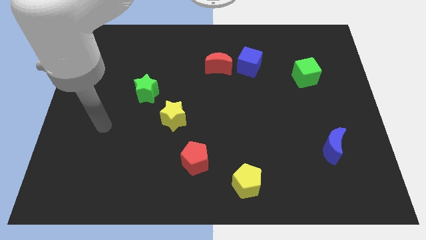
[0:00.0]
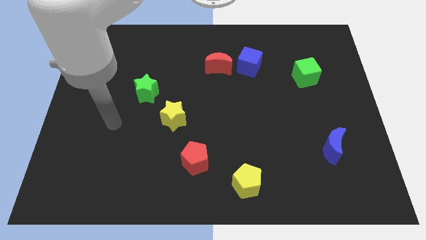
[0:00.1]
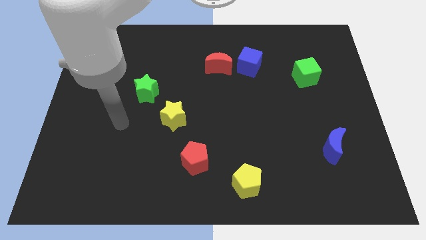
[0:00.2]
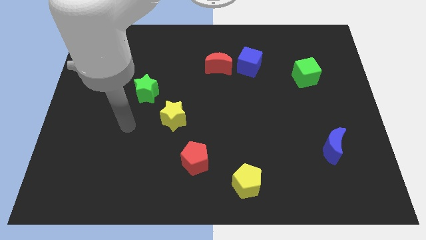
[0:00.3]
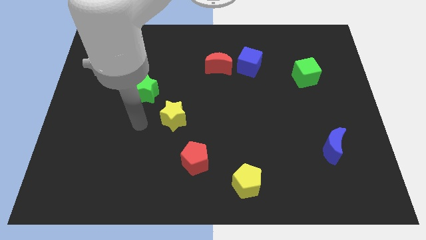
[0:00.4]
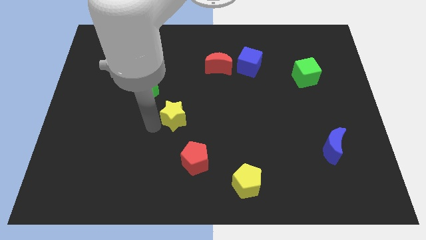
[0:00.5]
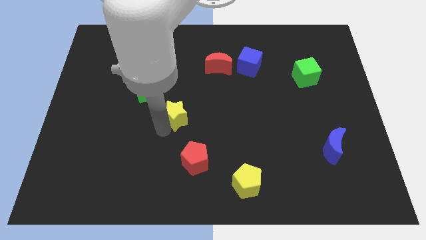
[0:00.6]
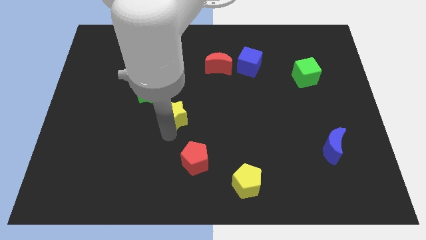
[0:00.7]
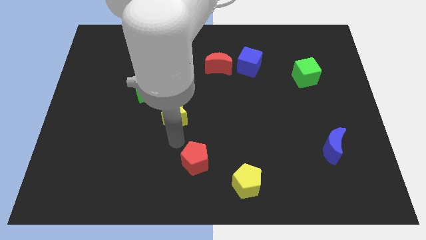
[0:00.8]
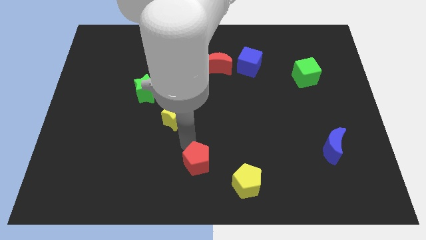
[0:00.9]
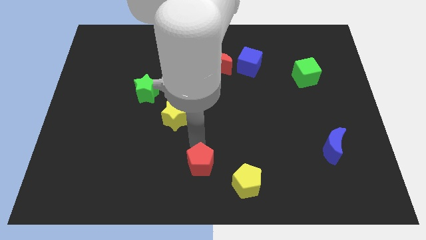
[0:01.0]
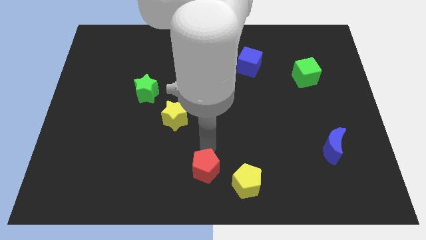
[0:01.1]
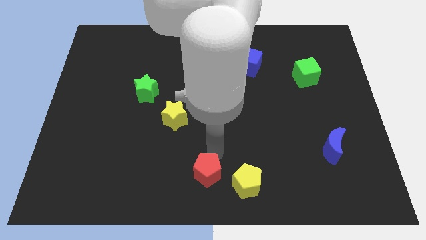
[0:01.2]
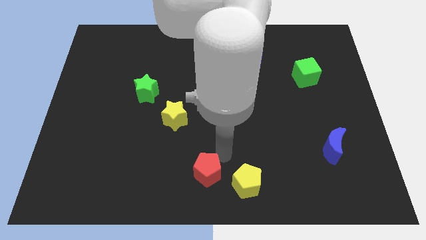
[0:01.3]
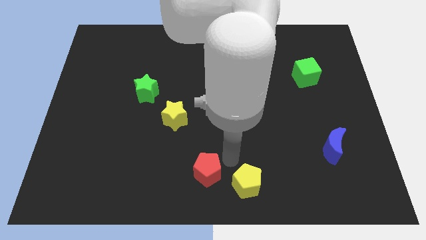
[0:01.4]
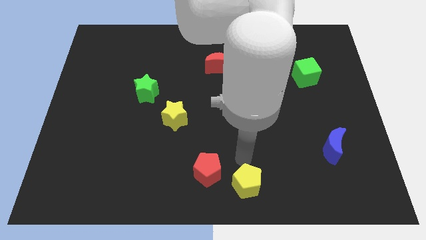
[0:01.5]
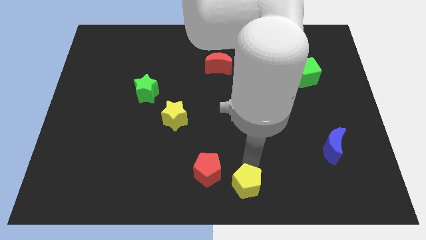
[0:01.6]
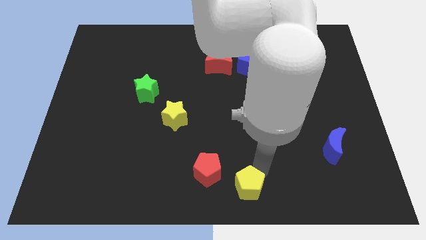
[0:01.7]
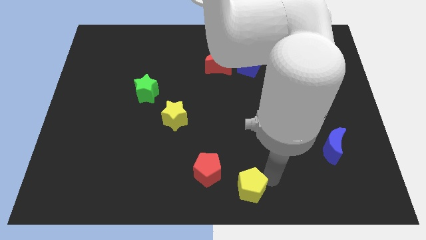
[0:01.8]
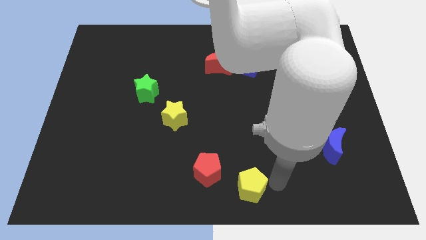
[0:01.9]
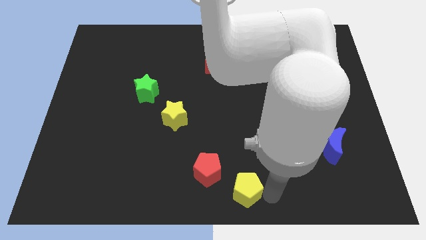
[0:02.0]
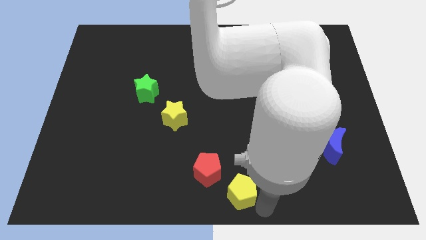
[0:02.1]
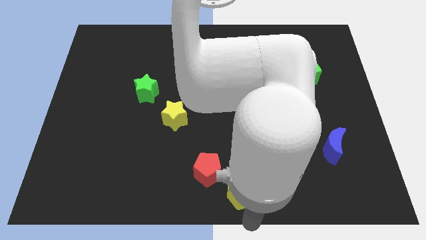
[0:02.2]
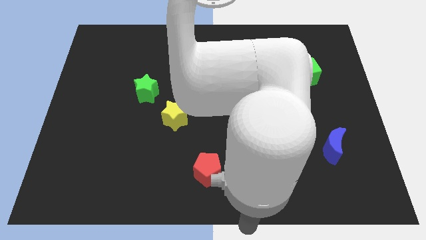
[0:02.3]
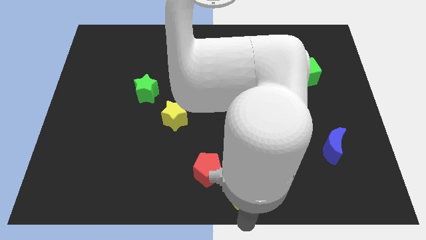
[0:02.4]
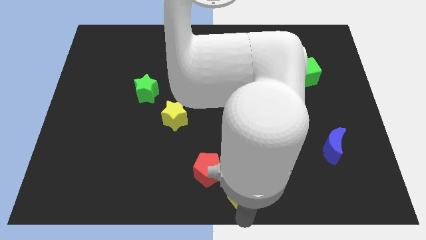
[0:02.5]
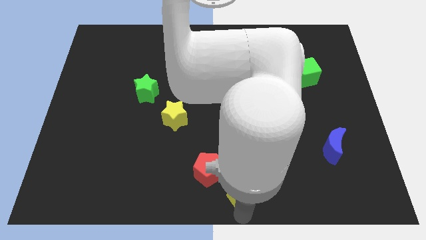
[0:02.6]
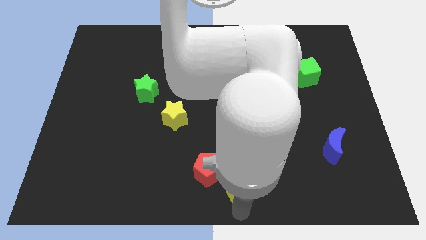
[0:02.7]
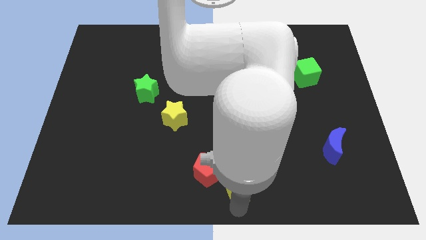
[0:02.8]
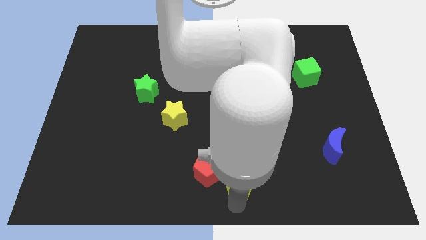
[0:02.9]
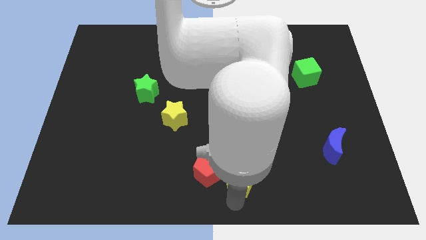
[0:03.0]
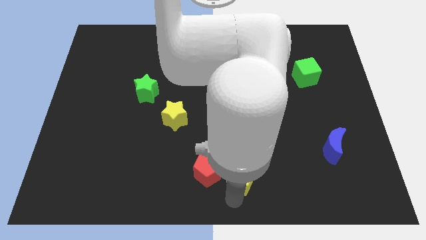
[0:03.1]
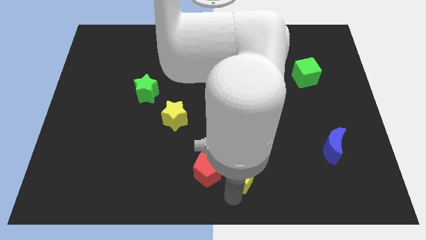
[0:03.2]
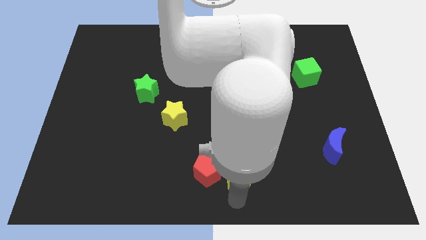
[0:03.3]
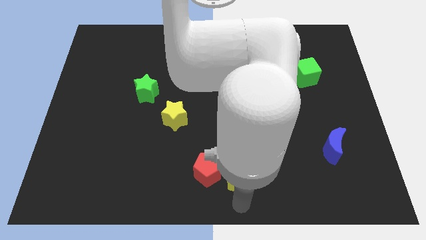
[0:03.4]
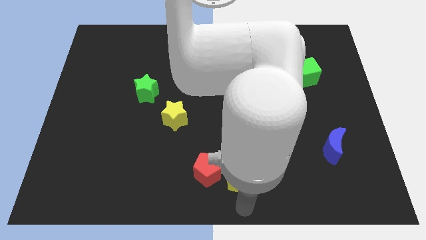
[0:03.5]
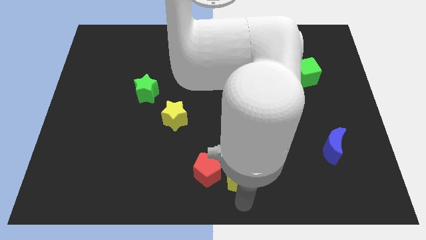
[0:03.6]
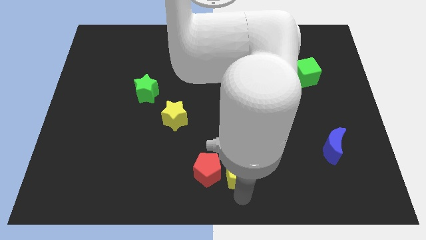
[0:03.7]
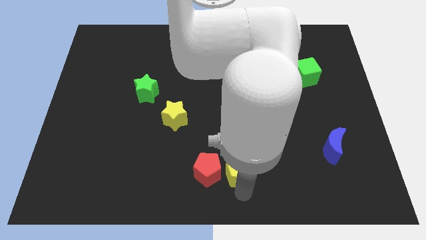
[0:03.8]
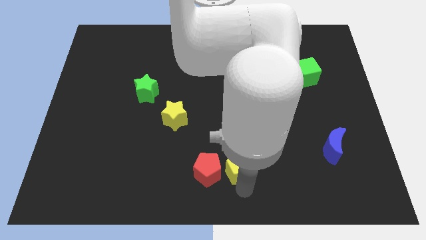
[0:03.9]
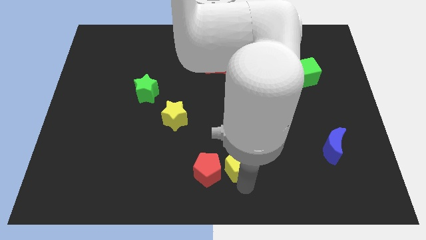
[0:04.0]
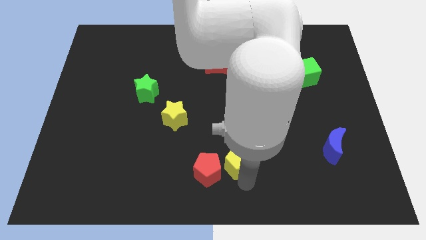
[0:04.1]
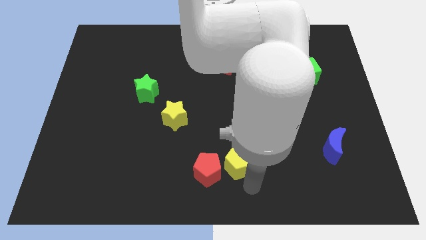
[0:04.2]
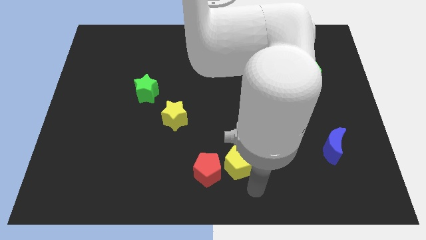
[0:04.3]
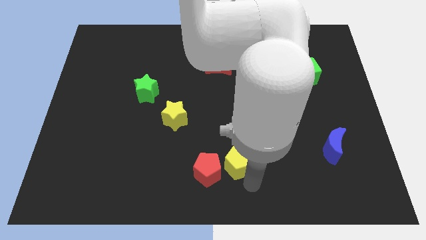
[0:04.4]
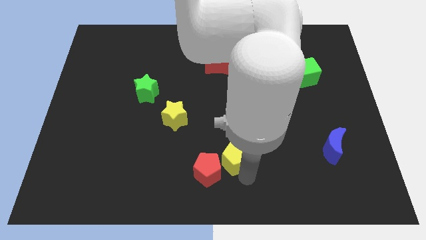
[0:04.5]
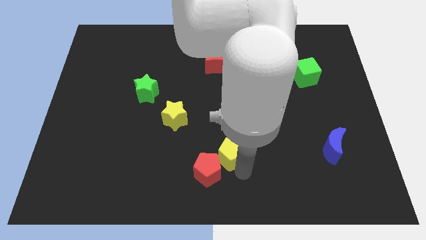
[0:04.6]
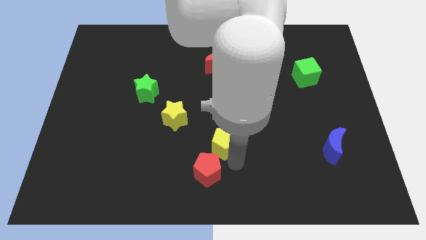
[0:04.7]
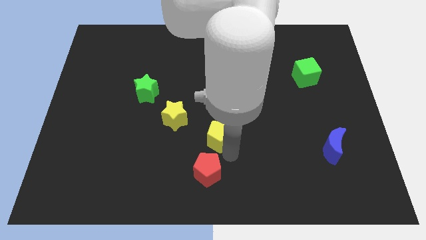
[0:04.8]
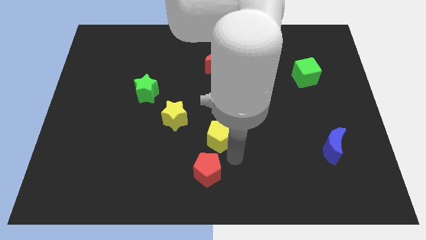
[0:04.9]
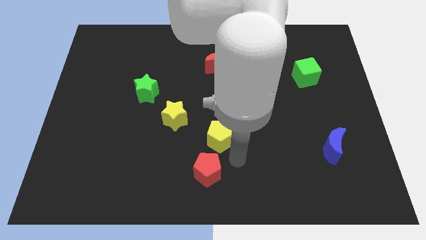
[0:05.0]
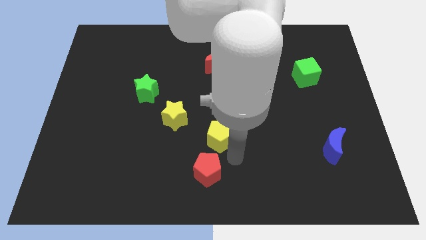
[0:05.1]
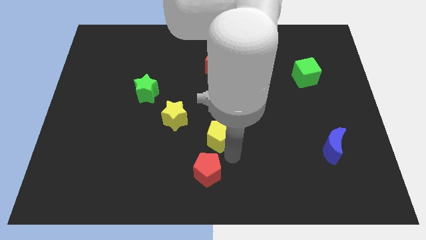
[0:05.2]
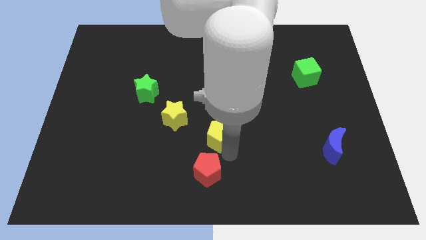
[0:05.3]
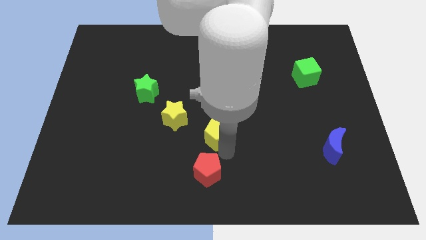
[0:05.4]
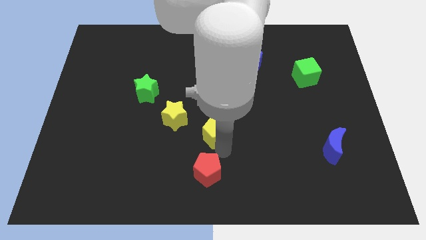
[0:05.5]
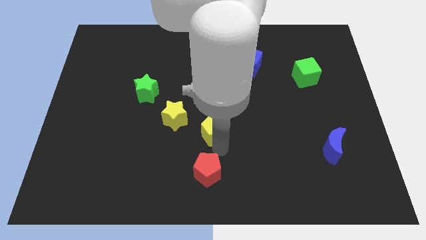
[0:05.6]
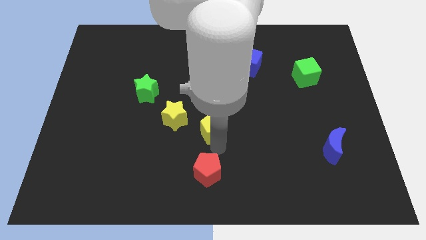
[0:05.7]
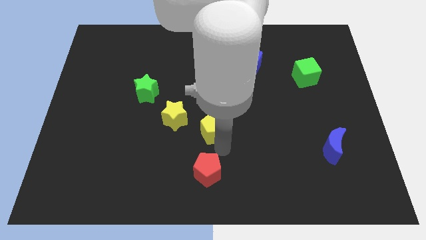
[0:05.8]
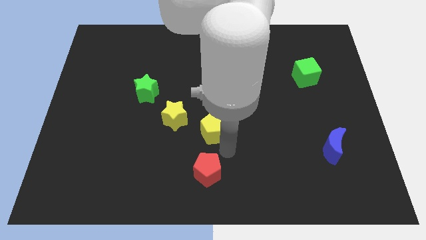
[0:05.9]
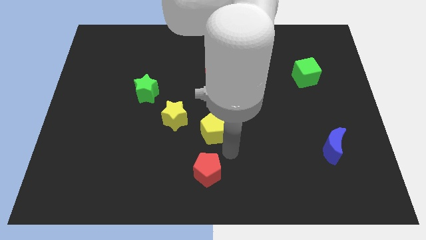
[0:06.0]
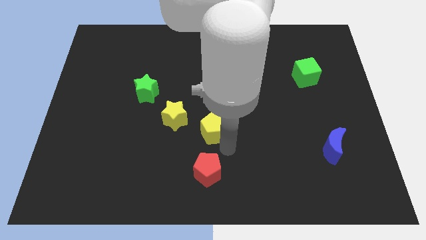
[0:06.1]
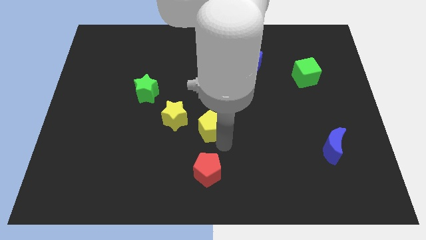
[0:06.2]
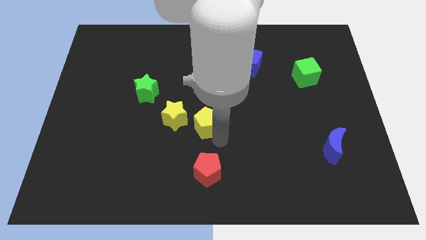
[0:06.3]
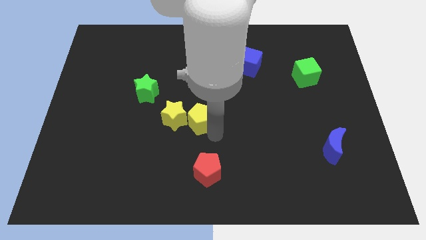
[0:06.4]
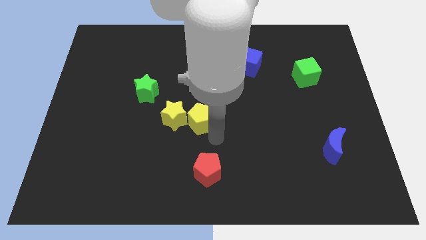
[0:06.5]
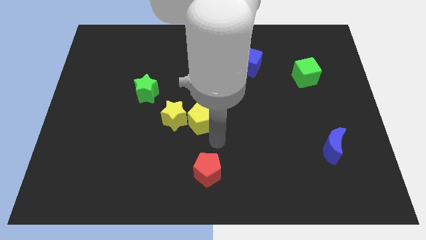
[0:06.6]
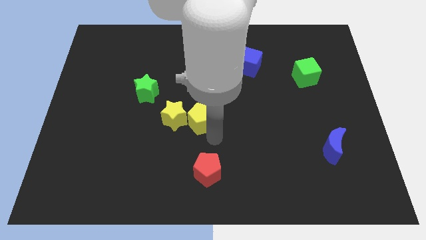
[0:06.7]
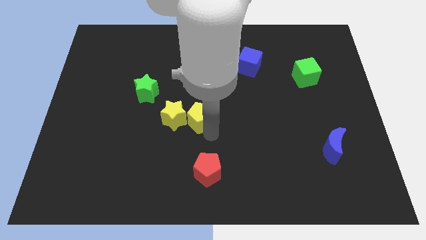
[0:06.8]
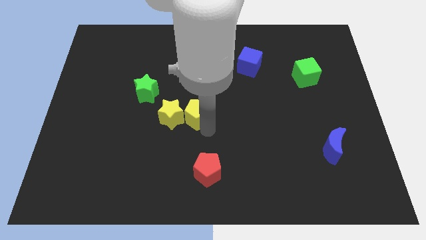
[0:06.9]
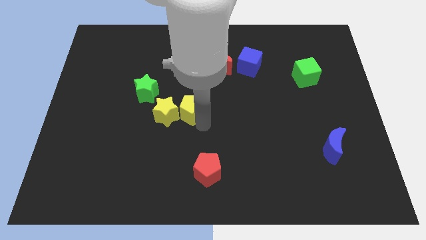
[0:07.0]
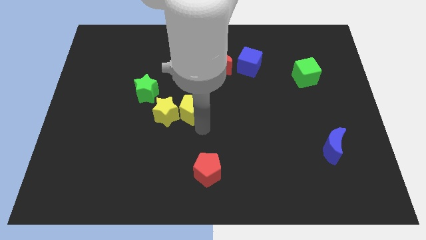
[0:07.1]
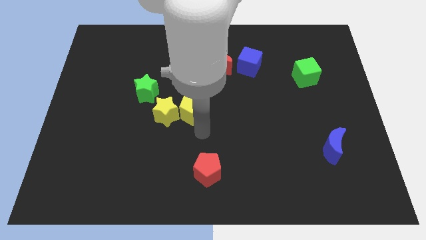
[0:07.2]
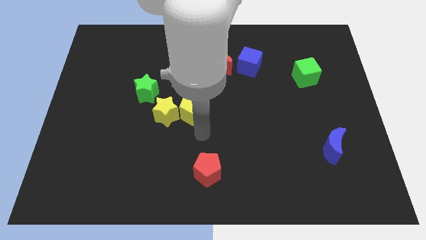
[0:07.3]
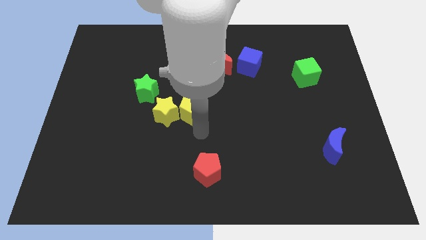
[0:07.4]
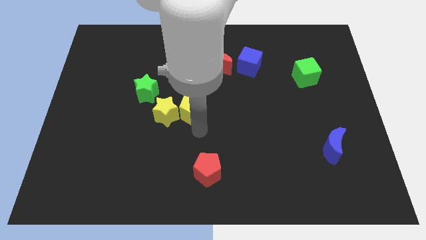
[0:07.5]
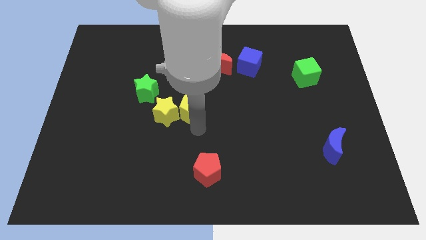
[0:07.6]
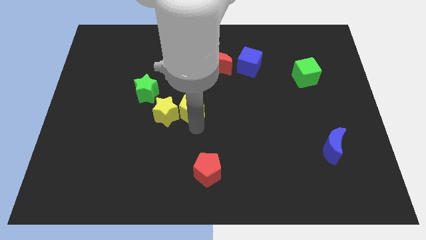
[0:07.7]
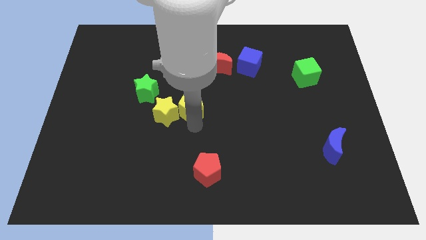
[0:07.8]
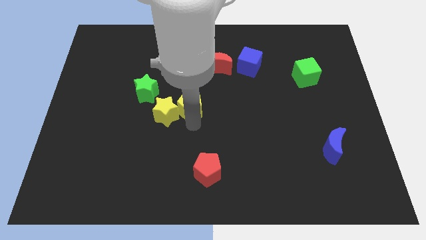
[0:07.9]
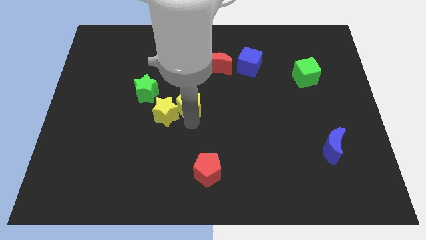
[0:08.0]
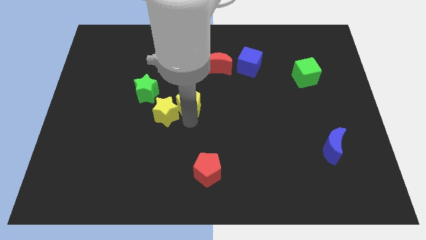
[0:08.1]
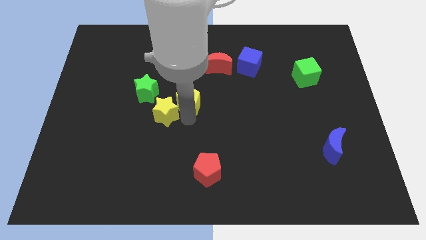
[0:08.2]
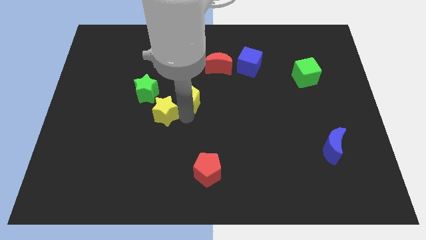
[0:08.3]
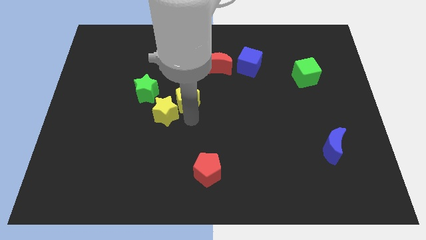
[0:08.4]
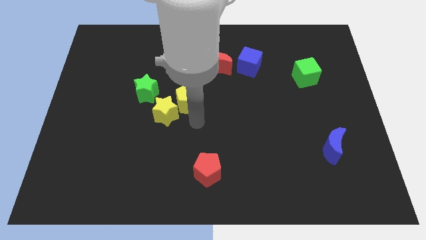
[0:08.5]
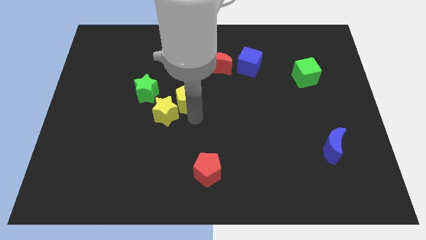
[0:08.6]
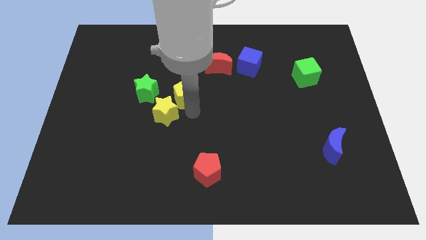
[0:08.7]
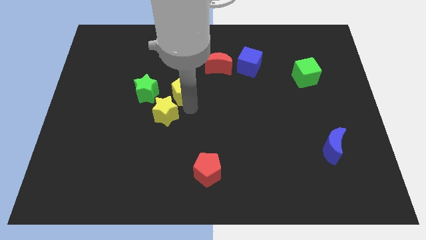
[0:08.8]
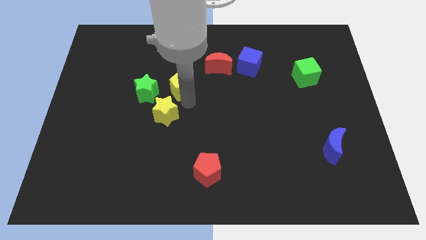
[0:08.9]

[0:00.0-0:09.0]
move the yellow pentagon to the top right of the green star
